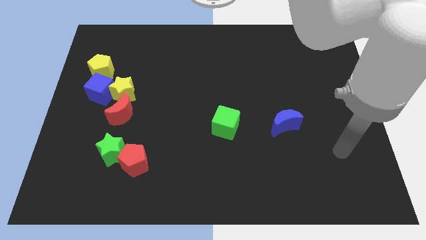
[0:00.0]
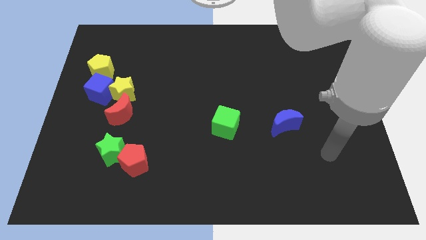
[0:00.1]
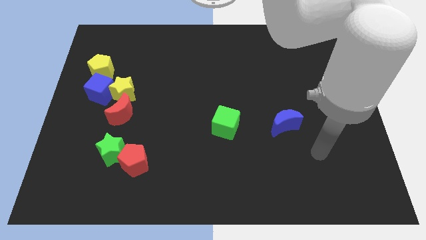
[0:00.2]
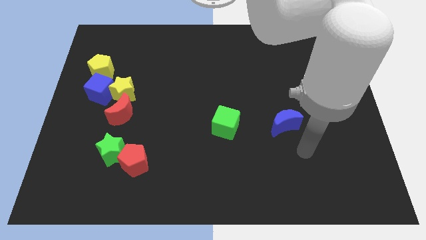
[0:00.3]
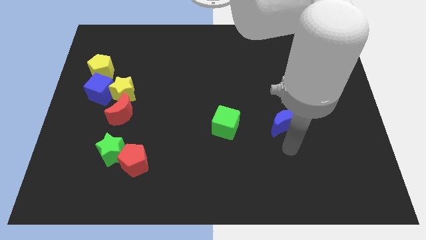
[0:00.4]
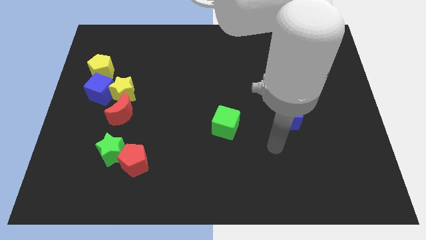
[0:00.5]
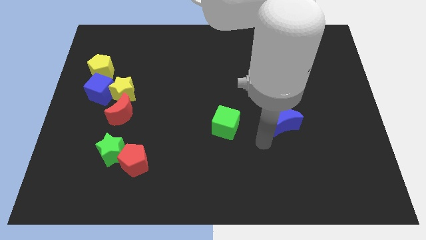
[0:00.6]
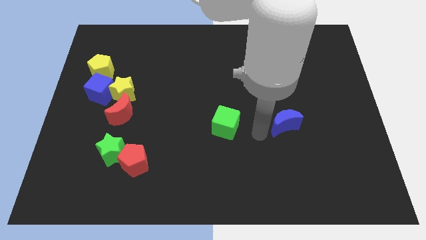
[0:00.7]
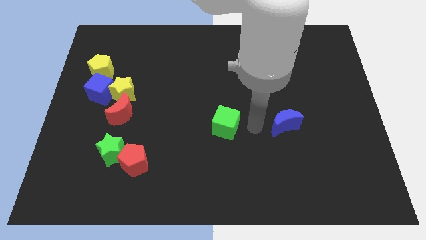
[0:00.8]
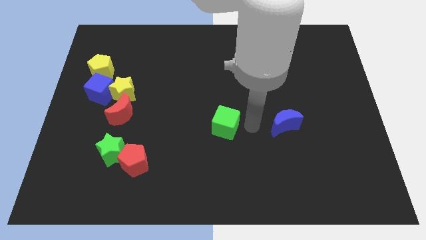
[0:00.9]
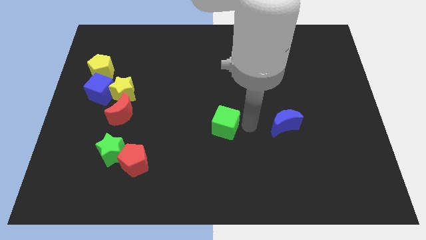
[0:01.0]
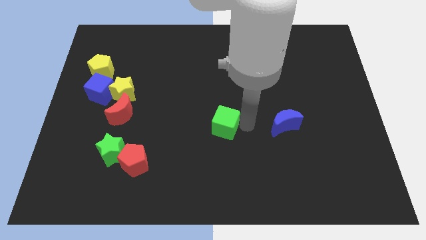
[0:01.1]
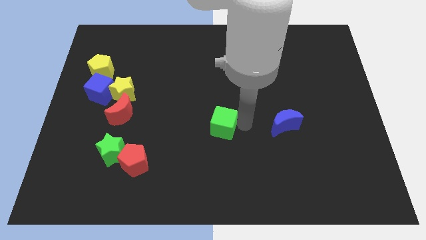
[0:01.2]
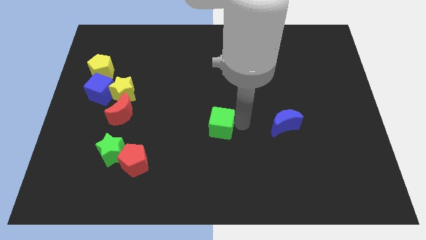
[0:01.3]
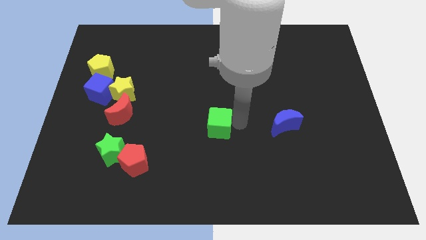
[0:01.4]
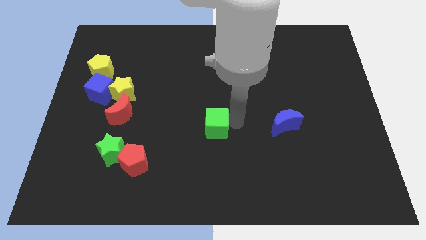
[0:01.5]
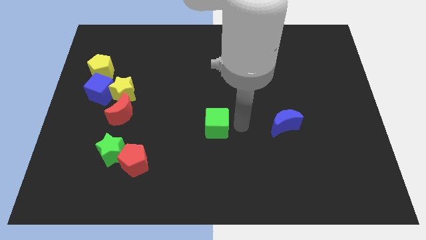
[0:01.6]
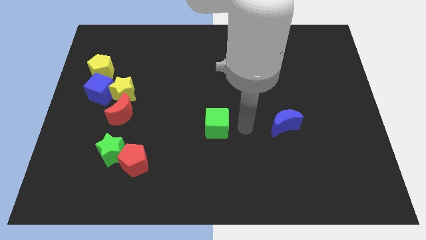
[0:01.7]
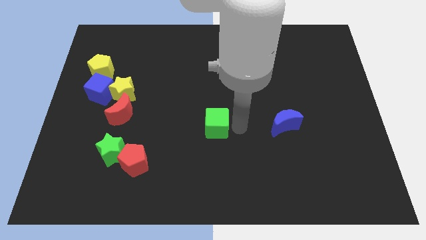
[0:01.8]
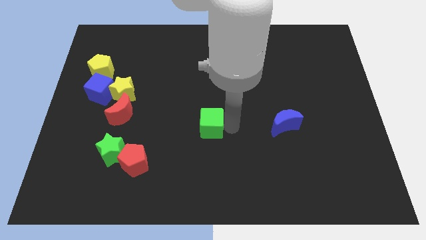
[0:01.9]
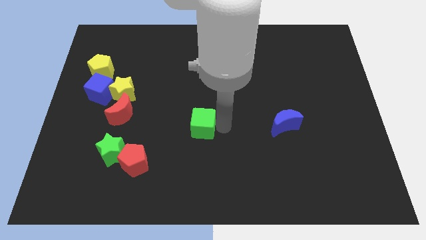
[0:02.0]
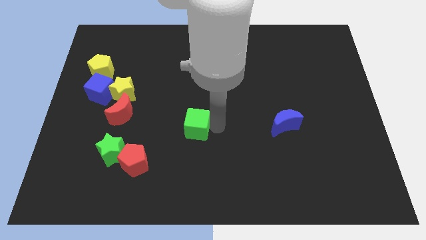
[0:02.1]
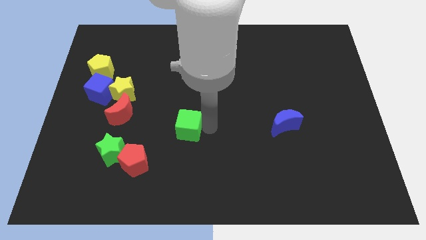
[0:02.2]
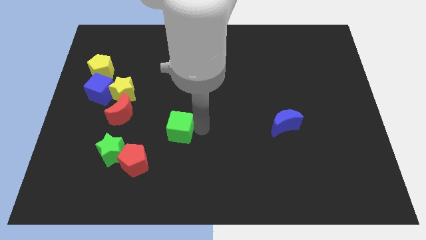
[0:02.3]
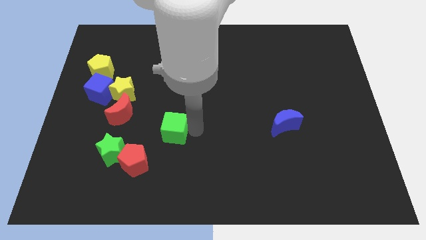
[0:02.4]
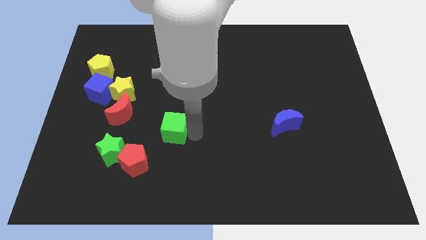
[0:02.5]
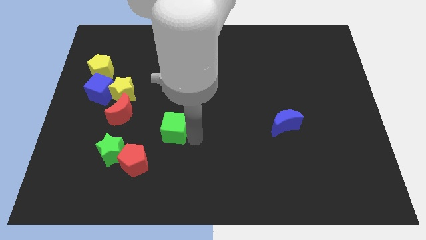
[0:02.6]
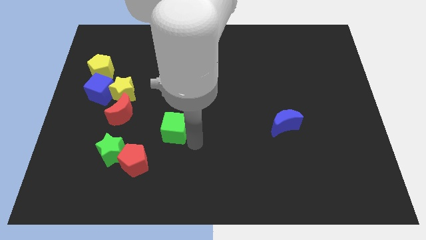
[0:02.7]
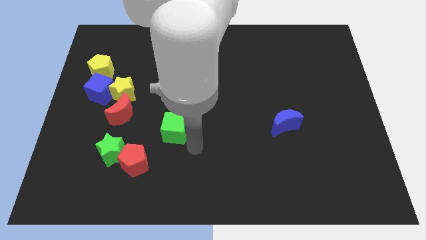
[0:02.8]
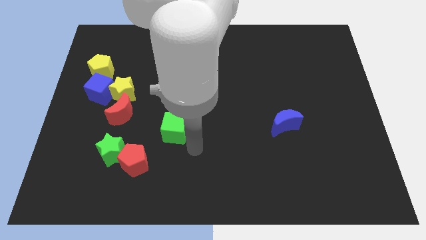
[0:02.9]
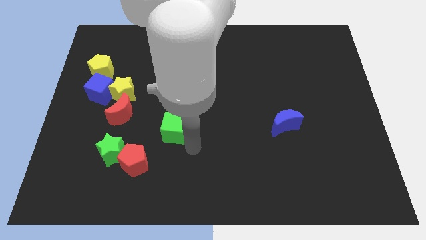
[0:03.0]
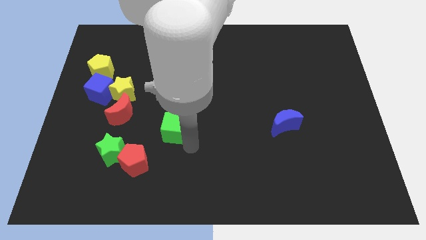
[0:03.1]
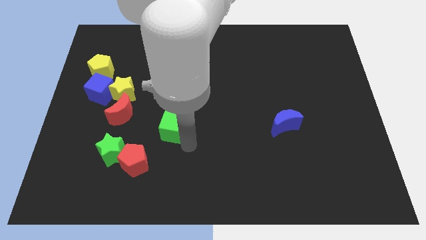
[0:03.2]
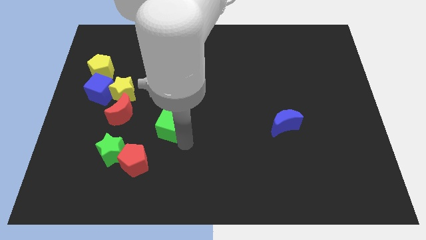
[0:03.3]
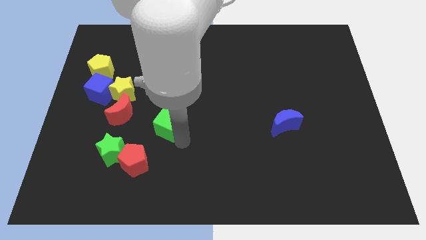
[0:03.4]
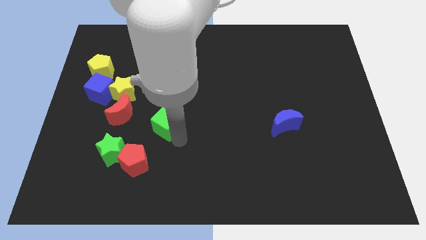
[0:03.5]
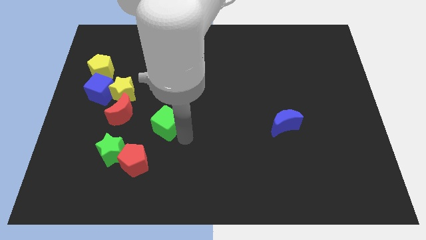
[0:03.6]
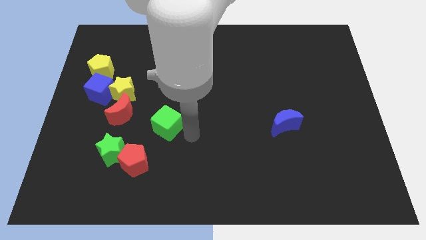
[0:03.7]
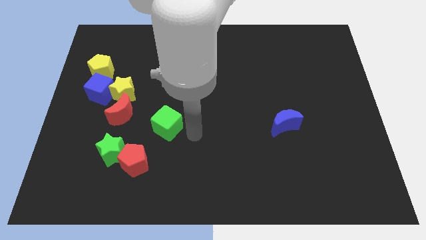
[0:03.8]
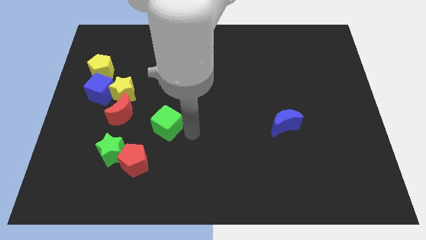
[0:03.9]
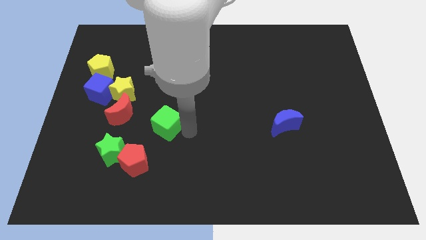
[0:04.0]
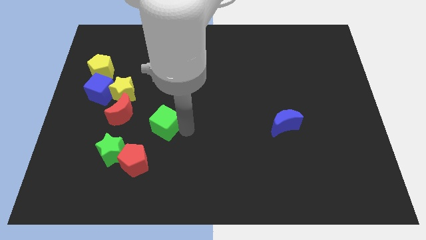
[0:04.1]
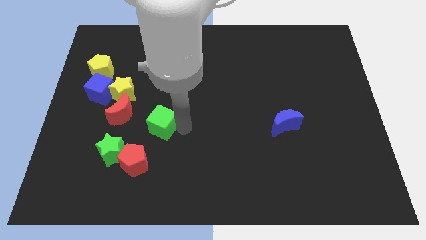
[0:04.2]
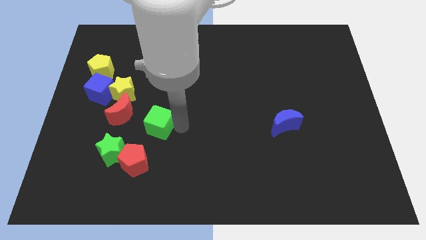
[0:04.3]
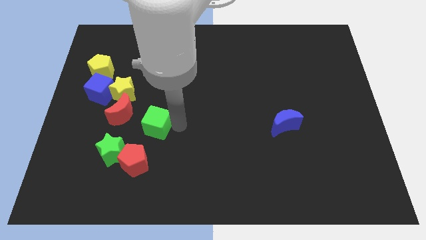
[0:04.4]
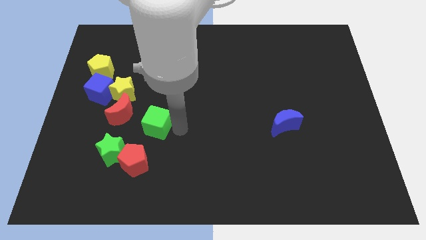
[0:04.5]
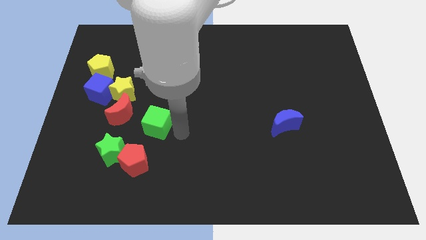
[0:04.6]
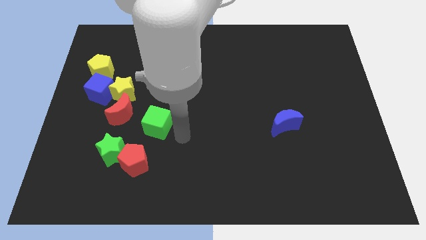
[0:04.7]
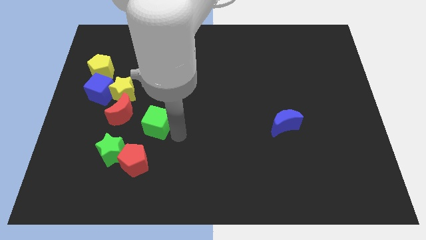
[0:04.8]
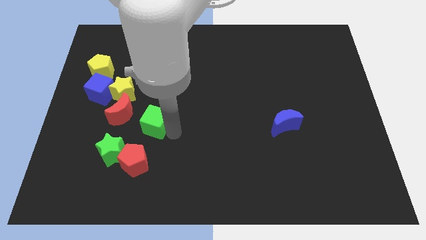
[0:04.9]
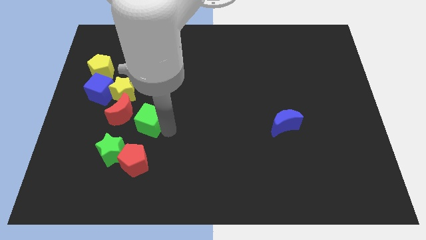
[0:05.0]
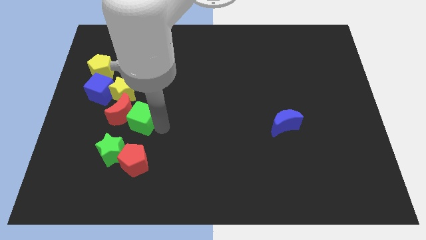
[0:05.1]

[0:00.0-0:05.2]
slide the green cube next to the red moon
